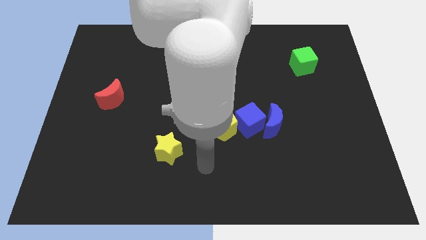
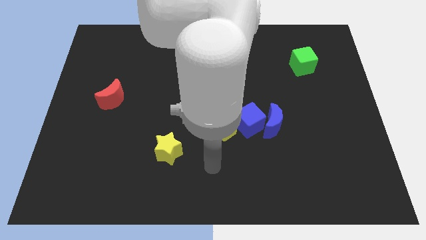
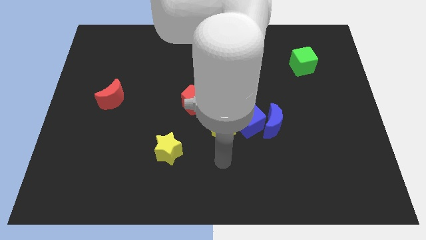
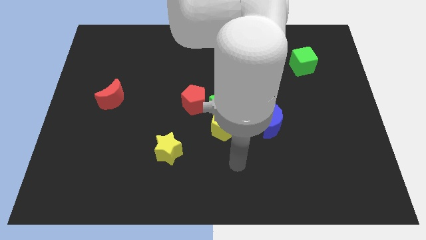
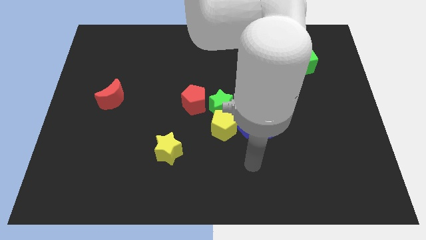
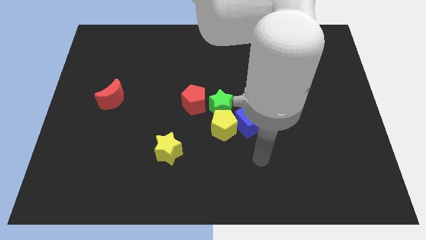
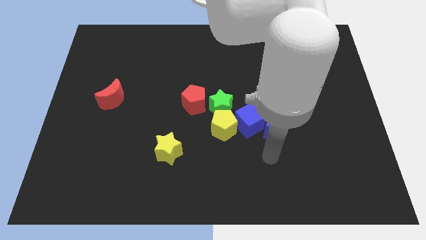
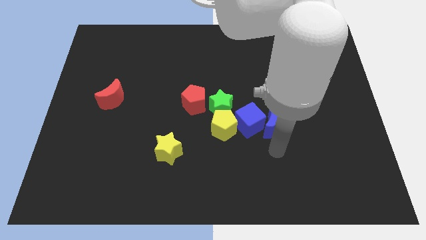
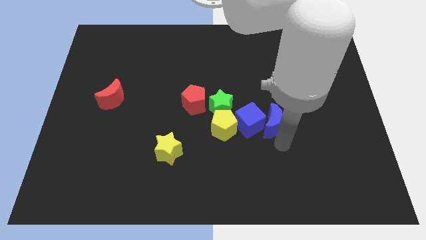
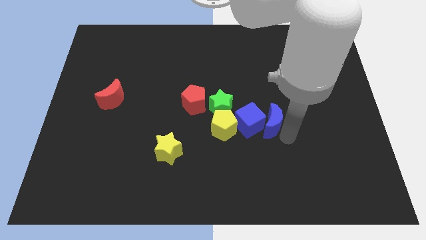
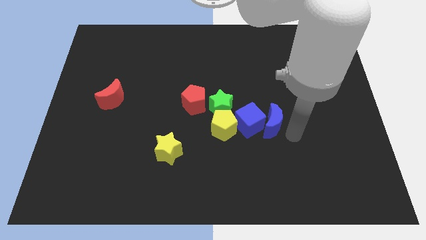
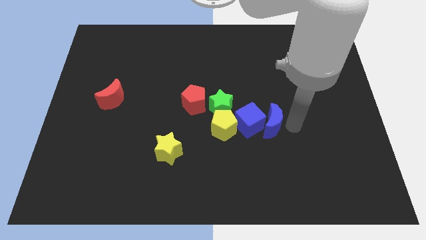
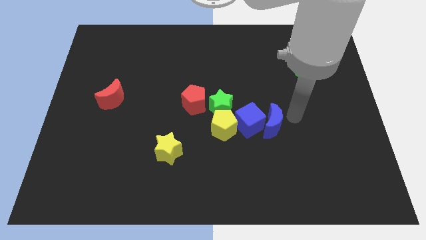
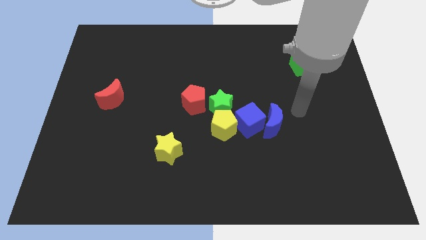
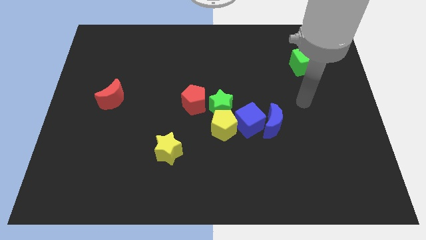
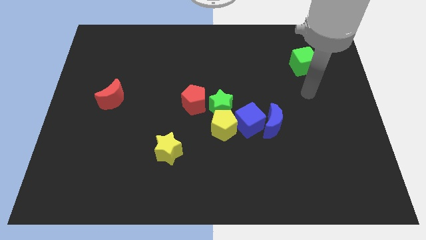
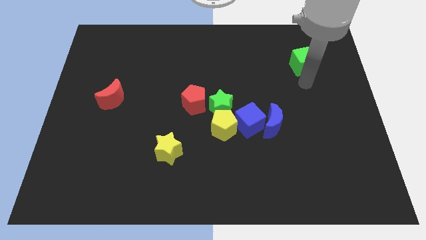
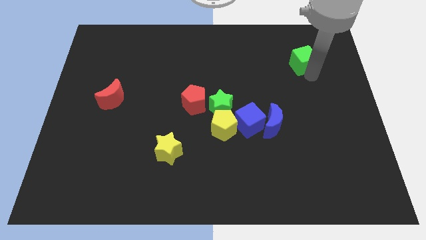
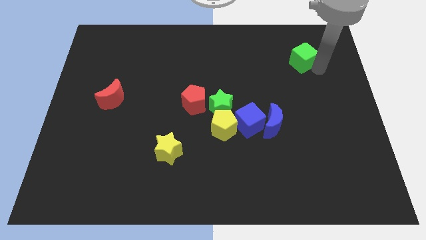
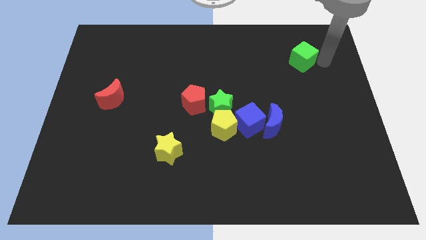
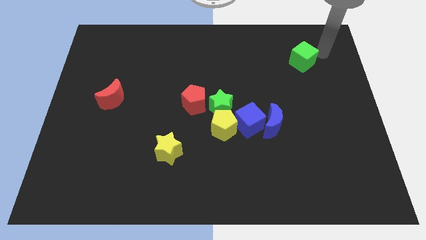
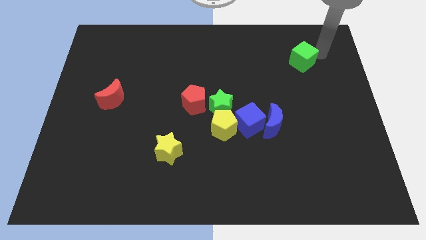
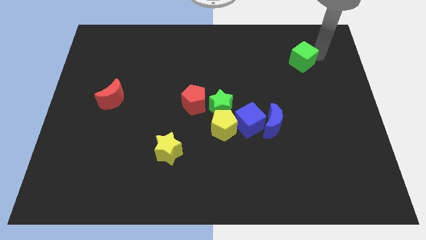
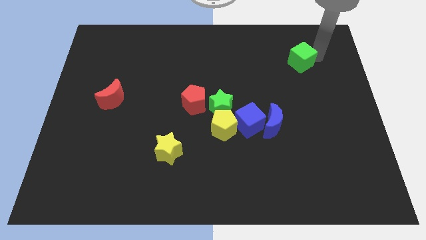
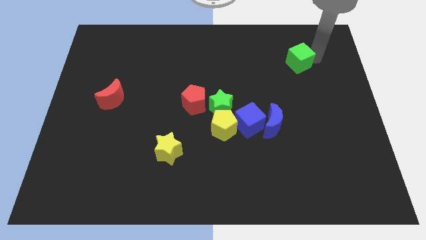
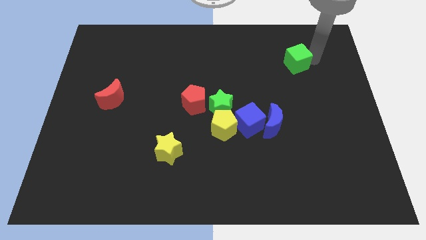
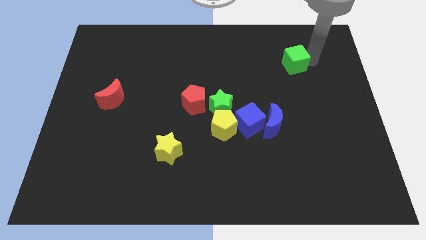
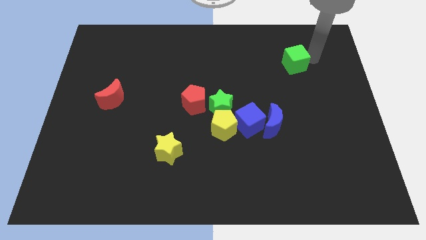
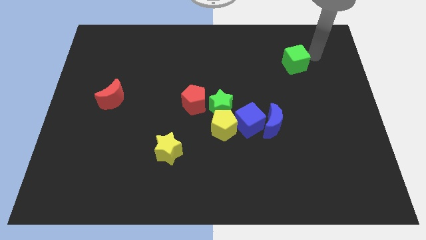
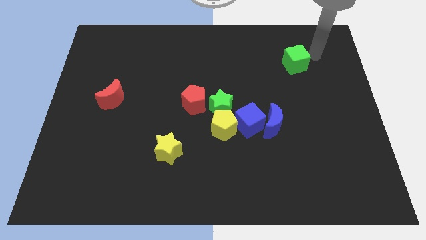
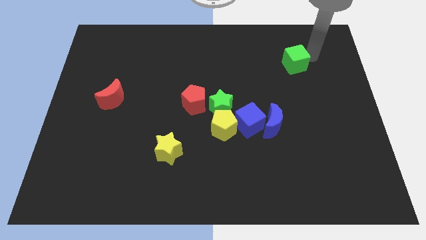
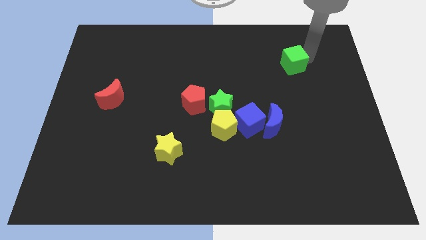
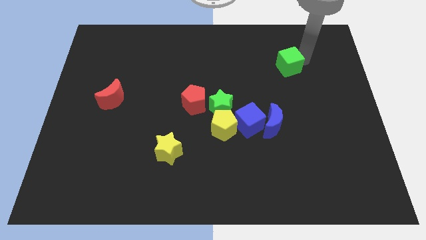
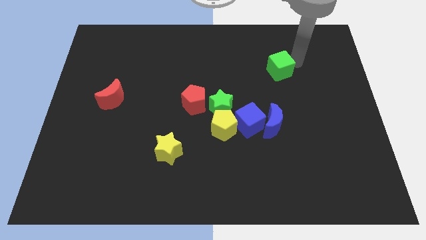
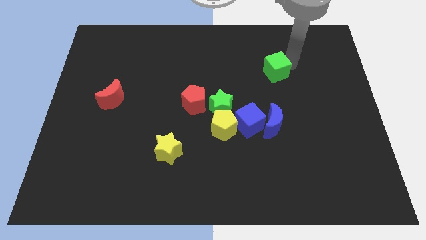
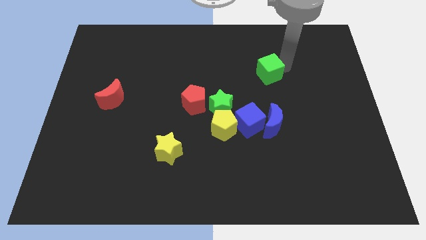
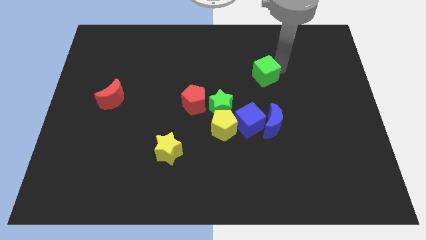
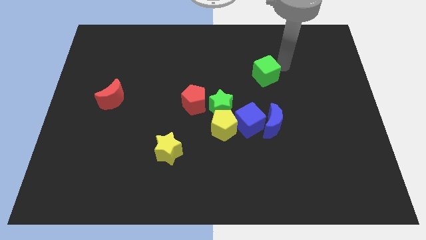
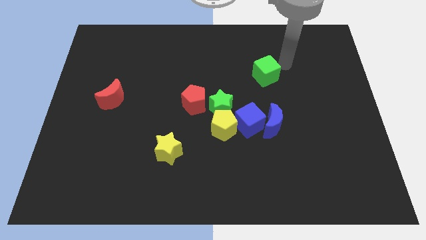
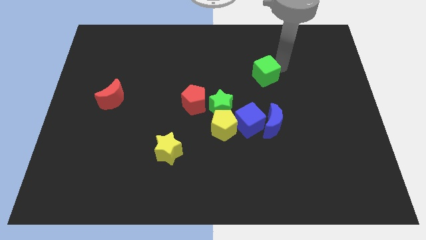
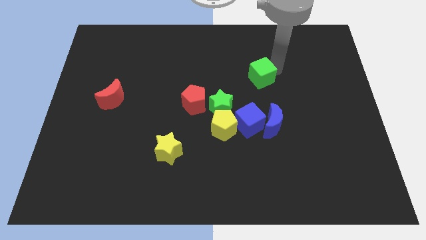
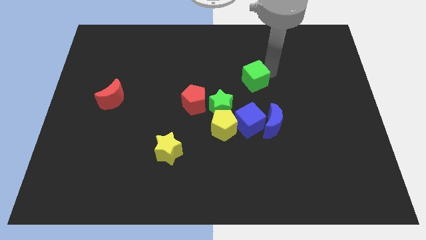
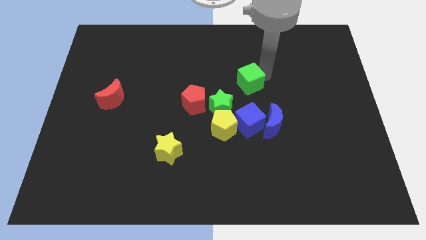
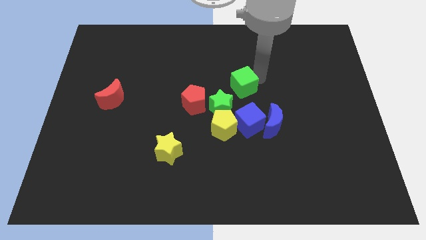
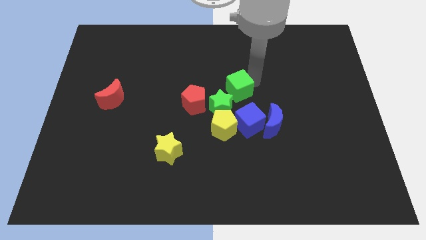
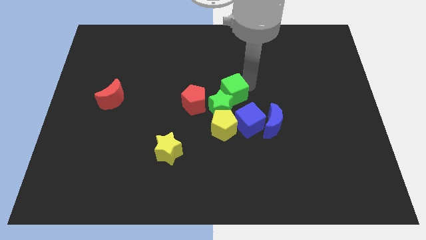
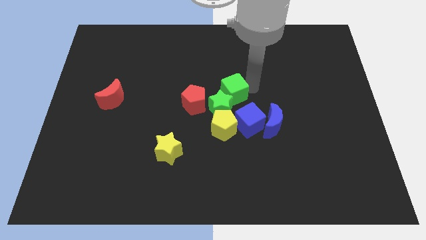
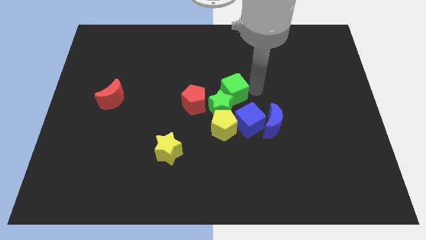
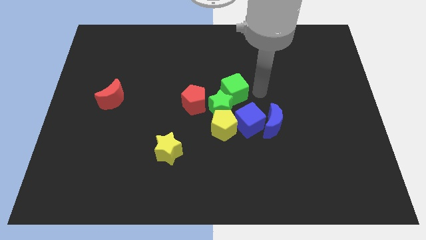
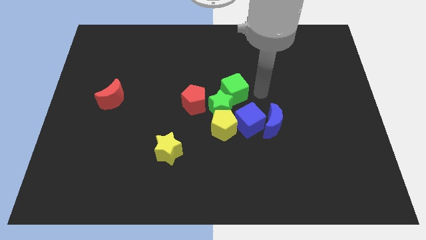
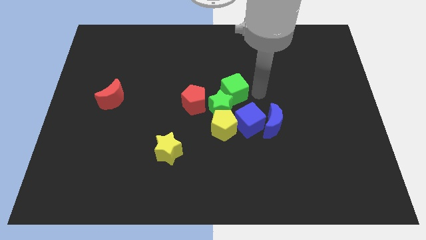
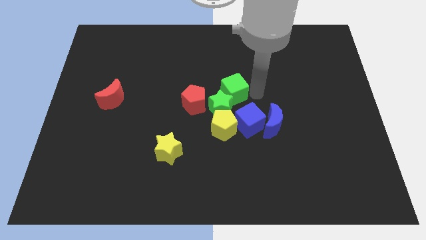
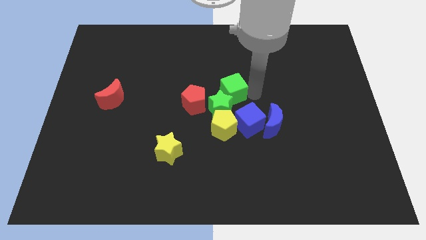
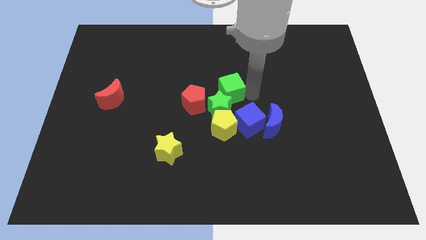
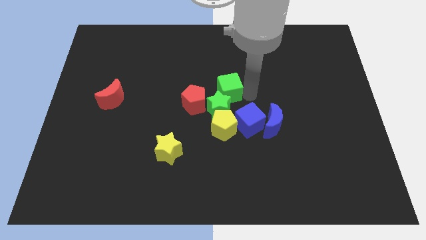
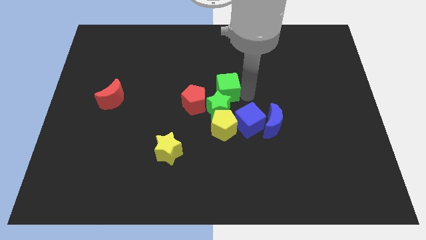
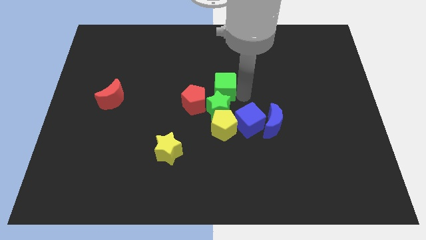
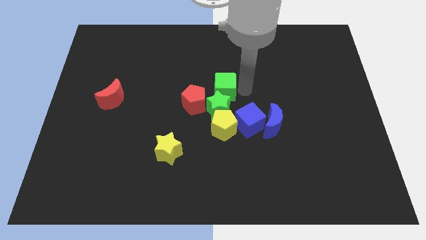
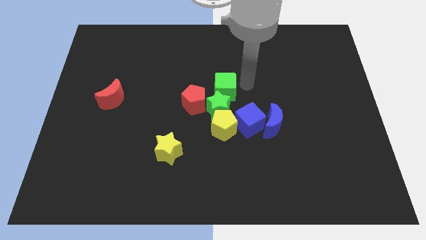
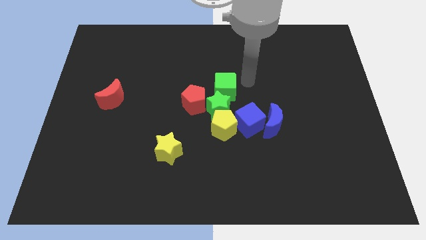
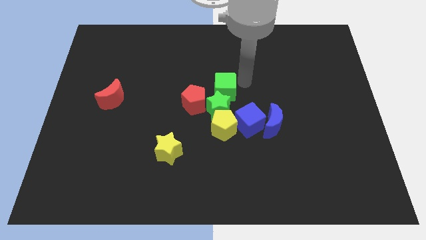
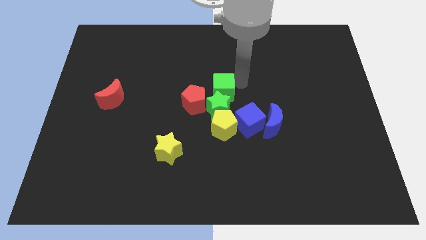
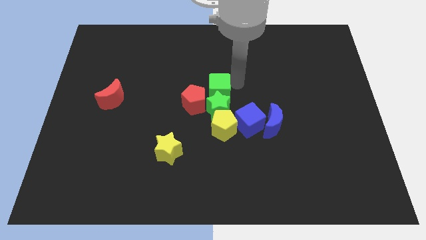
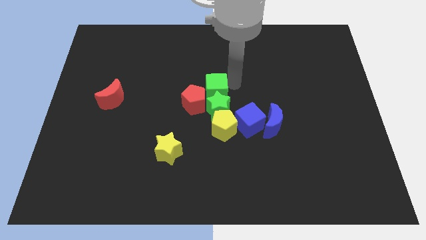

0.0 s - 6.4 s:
put the green cube next to the red pentagon

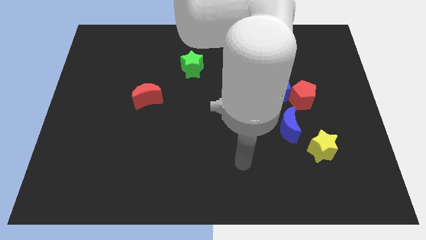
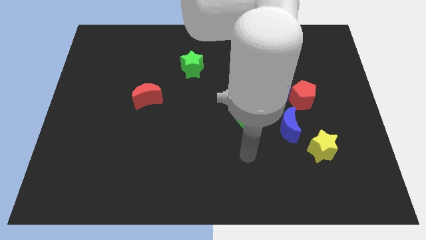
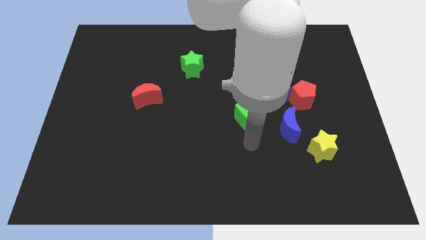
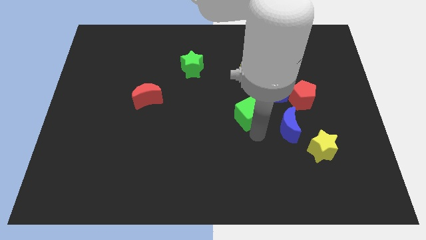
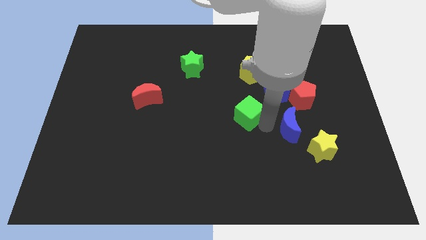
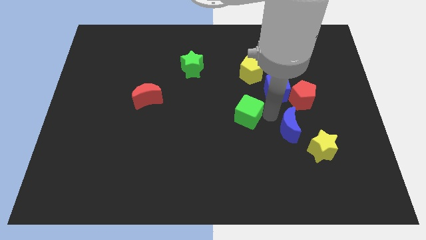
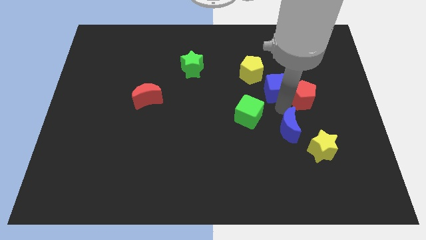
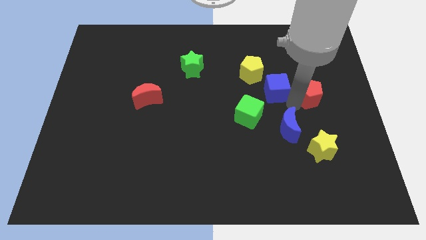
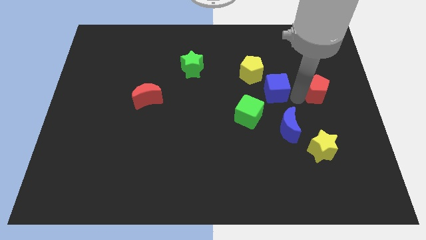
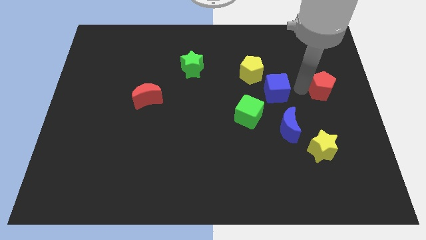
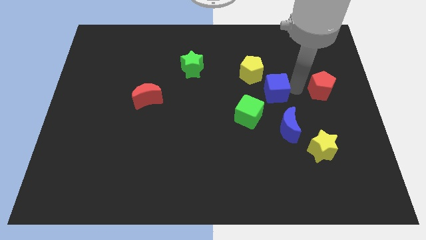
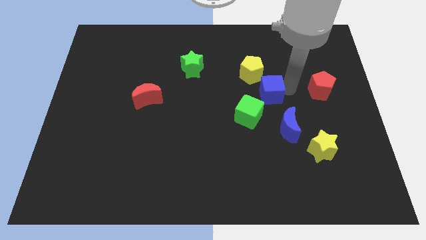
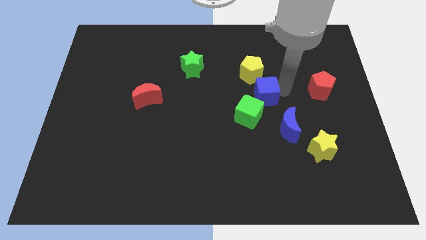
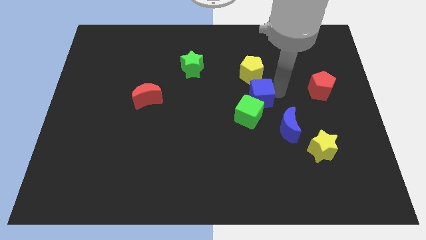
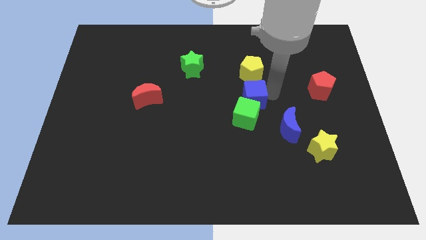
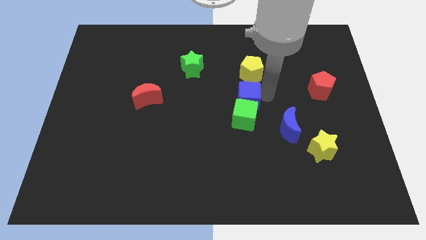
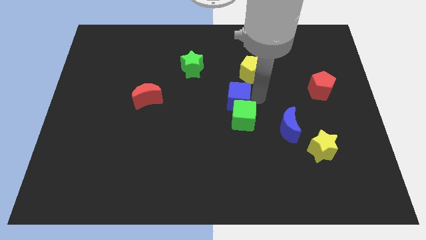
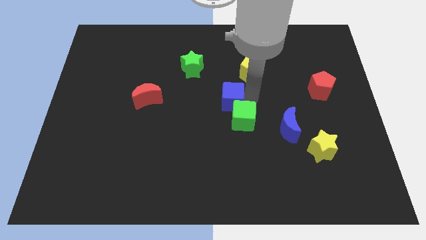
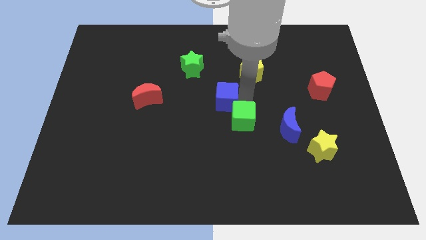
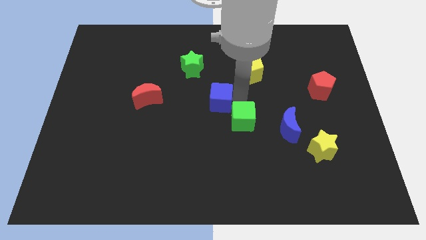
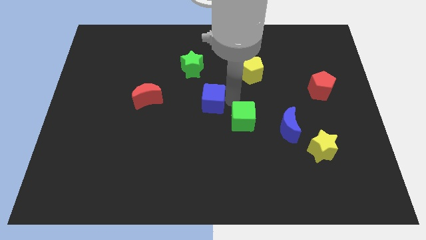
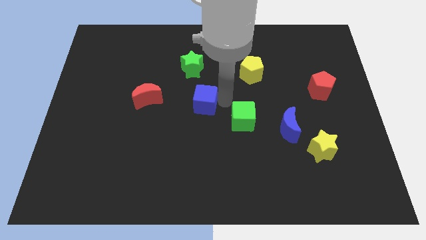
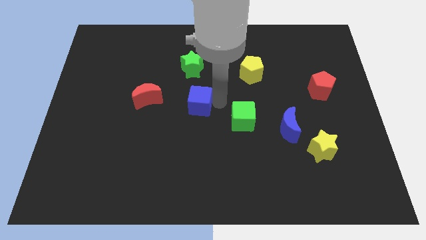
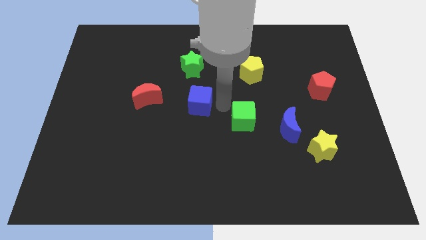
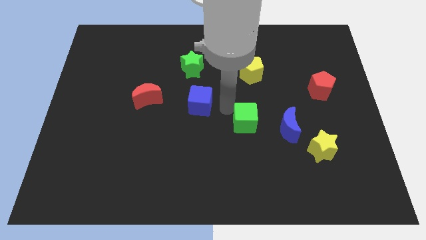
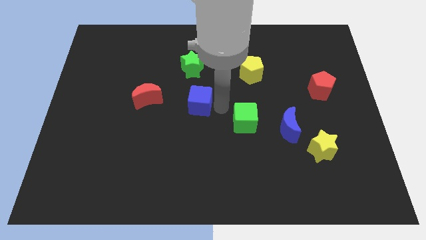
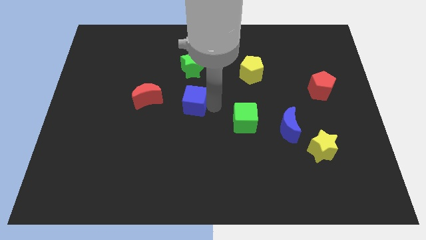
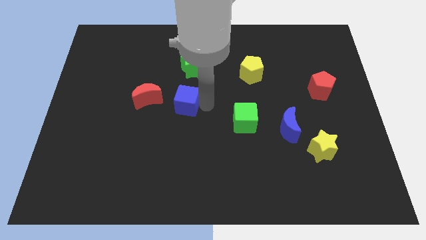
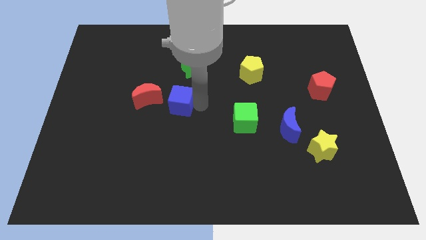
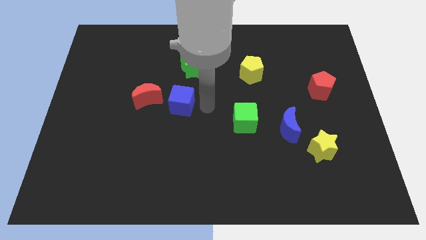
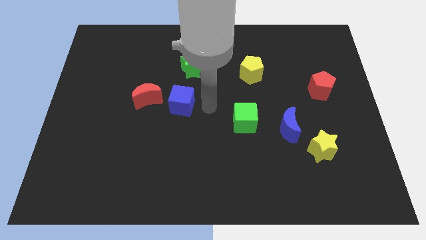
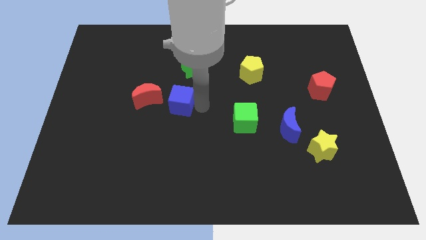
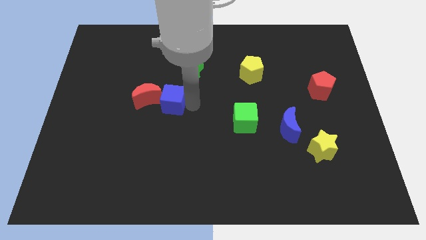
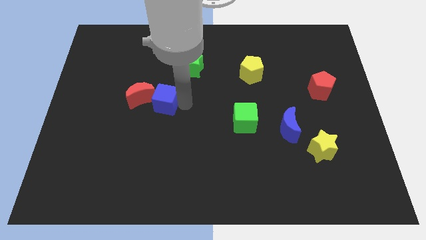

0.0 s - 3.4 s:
slide the blue cube to the red moon
